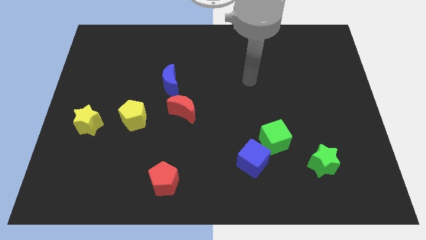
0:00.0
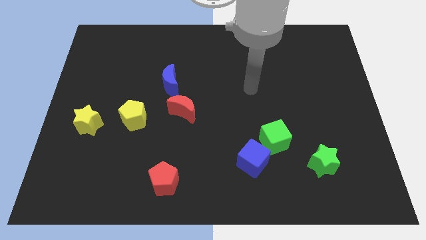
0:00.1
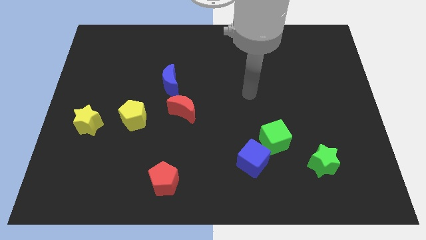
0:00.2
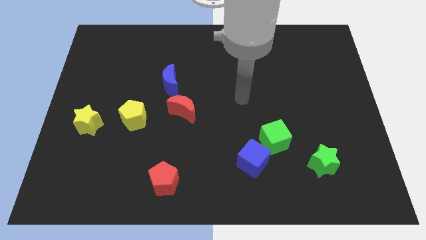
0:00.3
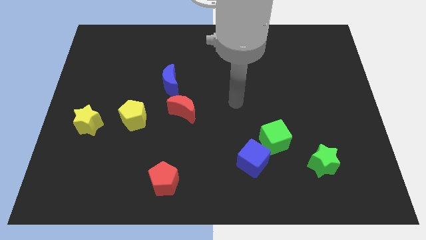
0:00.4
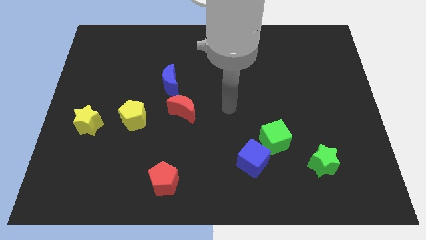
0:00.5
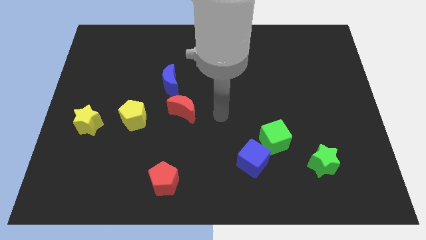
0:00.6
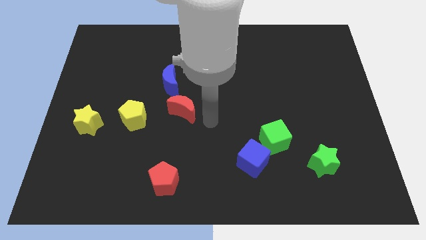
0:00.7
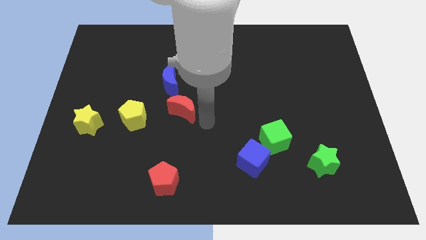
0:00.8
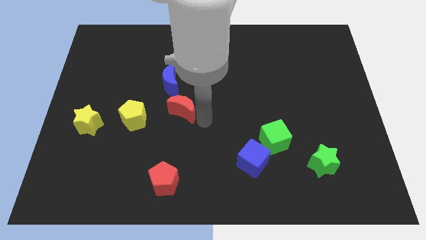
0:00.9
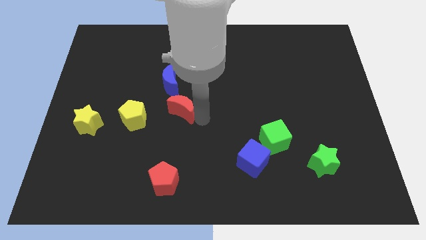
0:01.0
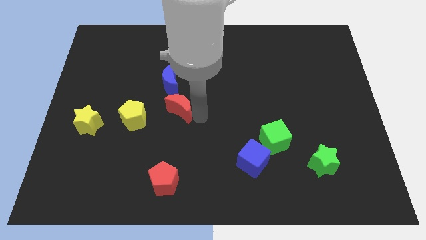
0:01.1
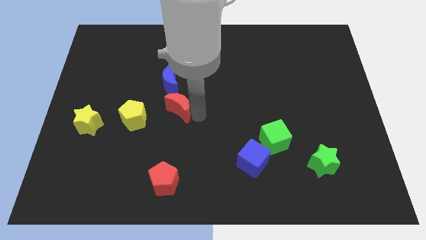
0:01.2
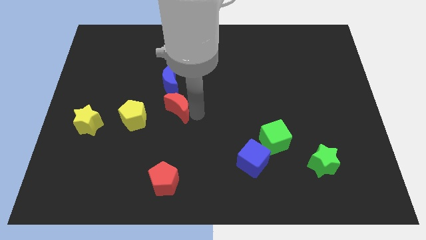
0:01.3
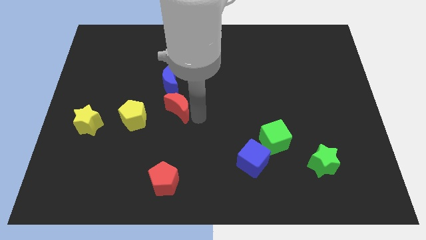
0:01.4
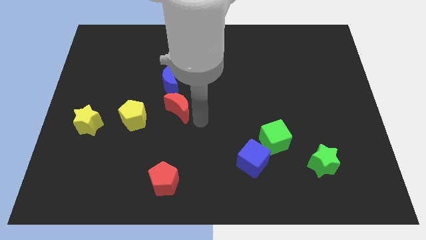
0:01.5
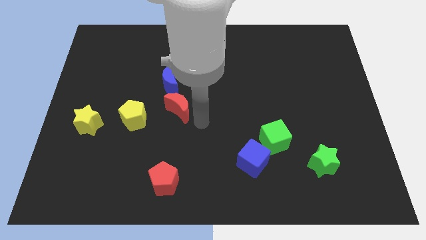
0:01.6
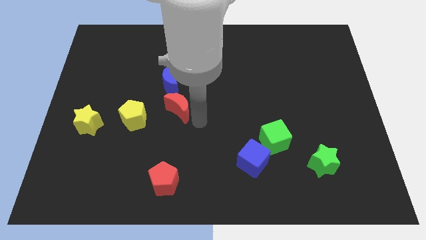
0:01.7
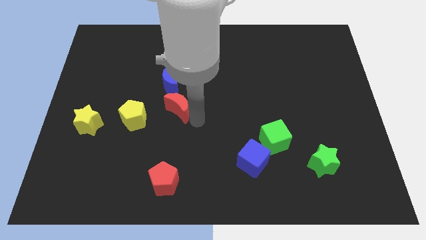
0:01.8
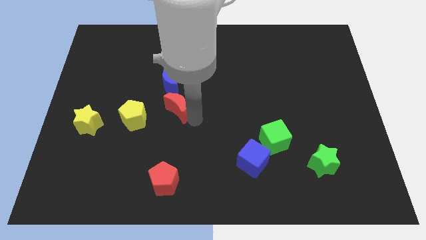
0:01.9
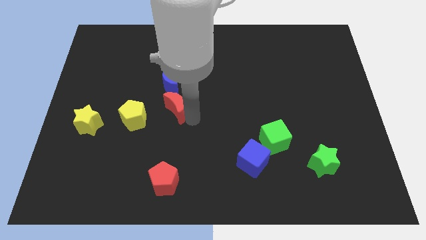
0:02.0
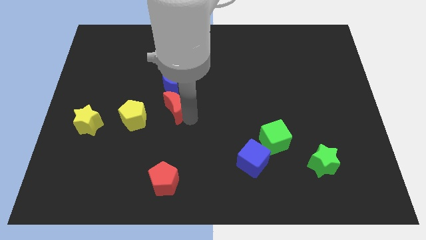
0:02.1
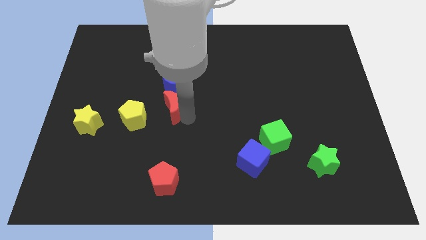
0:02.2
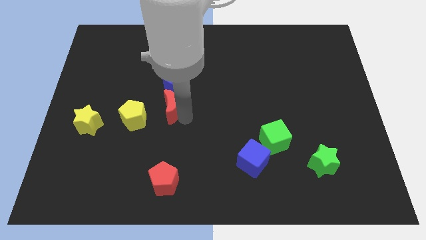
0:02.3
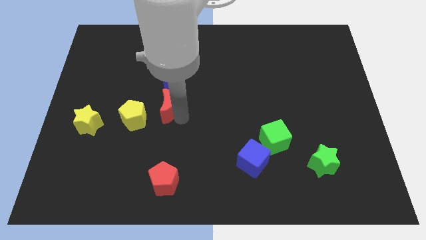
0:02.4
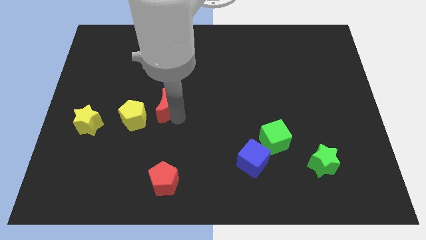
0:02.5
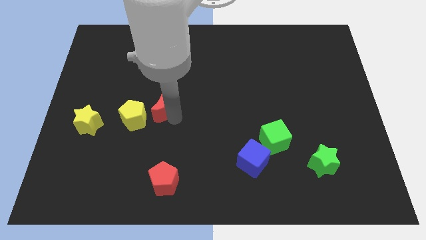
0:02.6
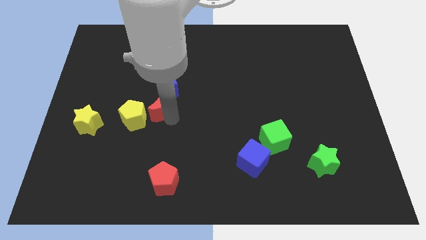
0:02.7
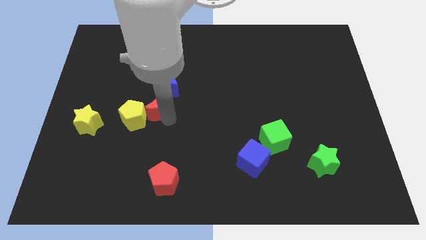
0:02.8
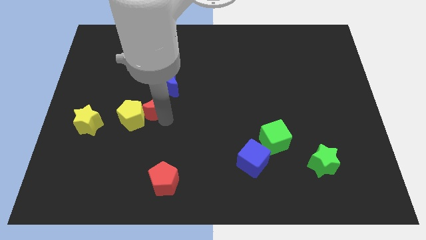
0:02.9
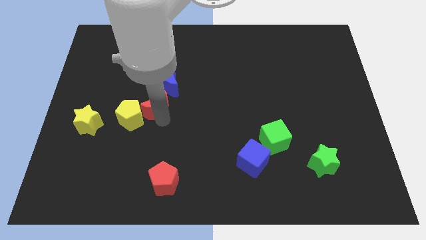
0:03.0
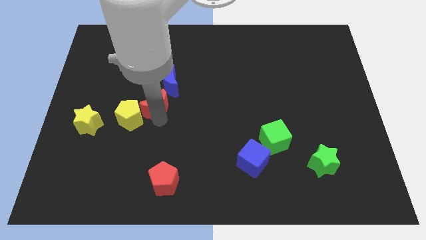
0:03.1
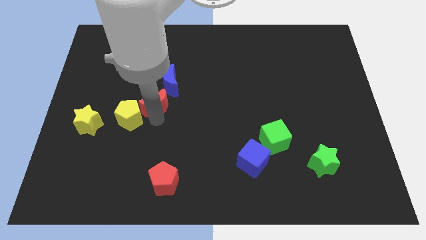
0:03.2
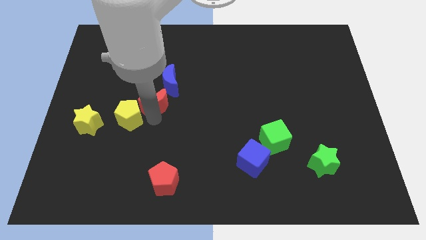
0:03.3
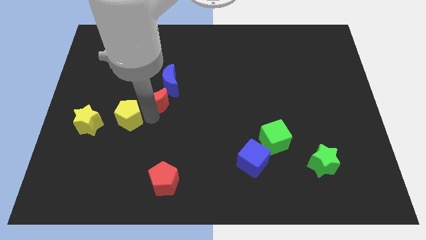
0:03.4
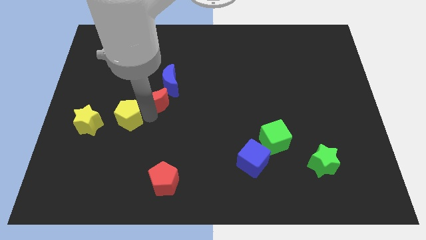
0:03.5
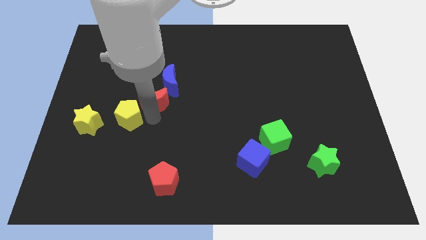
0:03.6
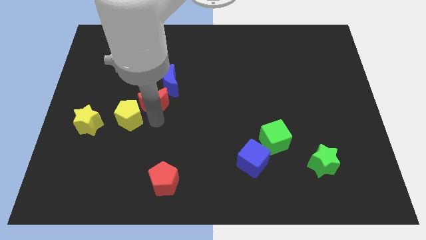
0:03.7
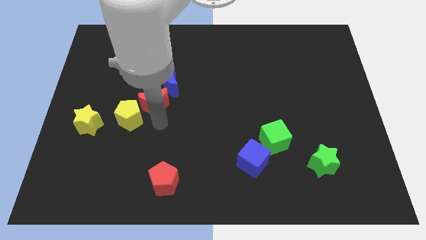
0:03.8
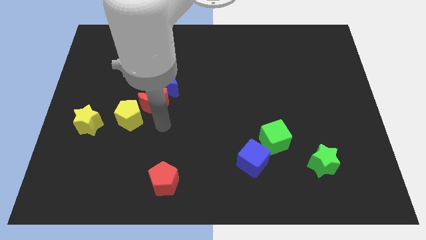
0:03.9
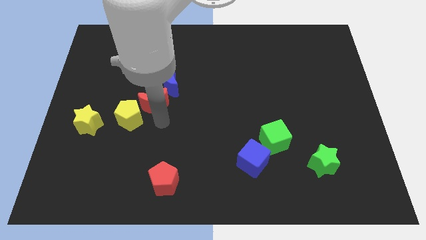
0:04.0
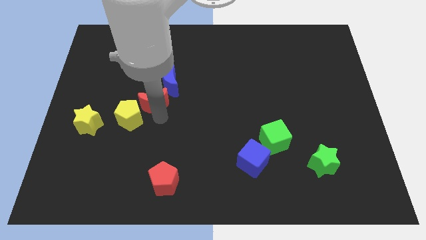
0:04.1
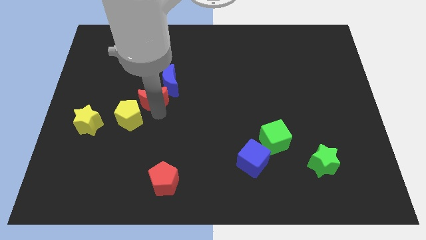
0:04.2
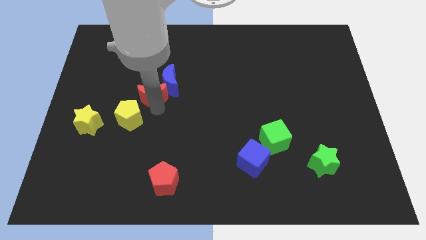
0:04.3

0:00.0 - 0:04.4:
slightly slide the red moon up and to the left diagonally

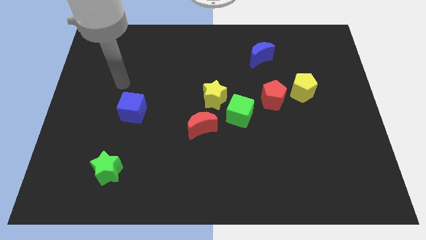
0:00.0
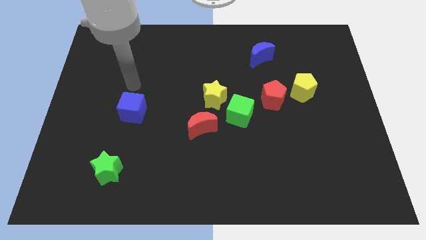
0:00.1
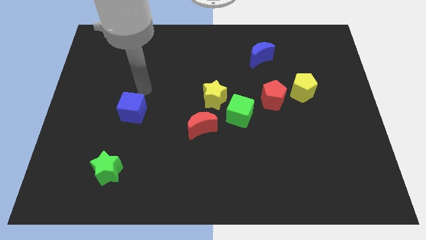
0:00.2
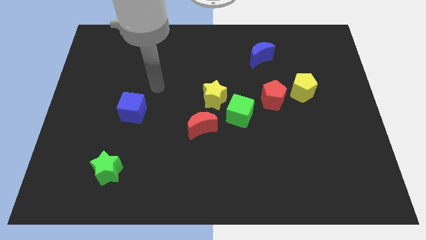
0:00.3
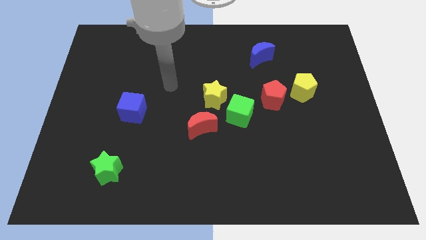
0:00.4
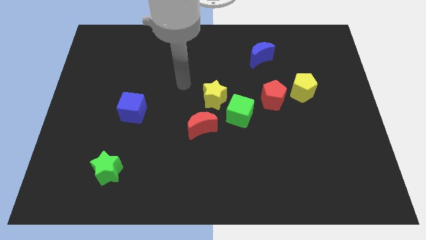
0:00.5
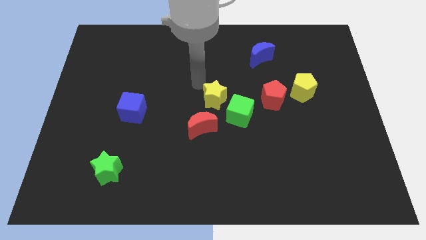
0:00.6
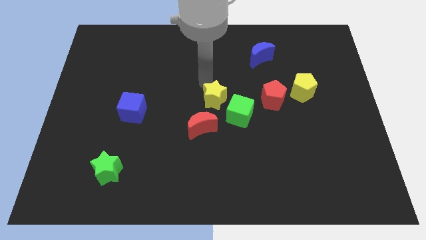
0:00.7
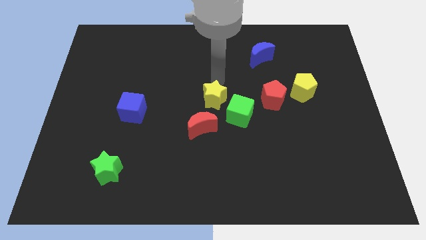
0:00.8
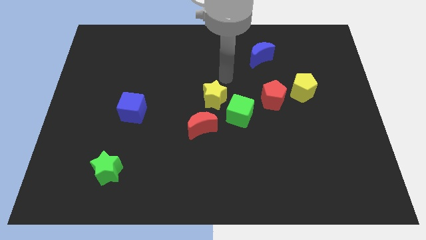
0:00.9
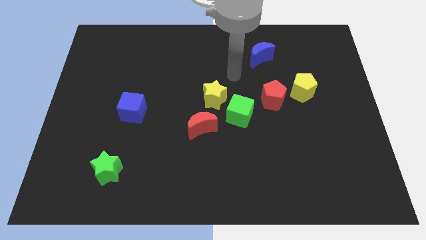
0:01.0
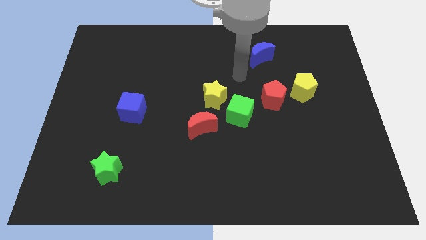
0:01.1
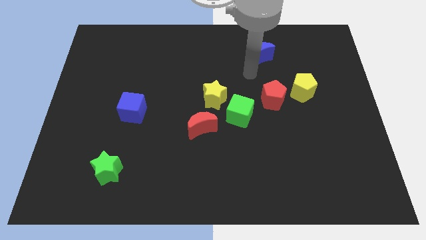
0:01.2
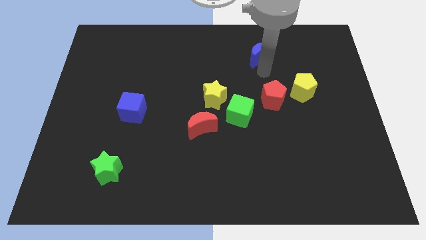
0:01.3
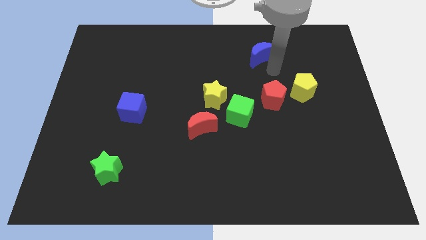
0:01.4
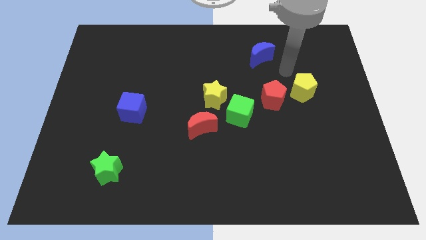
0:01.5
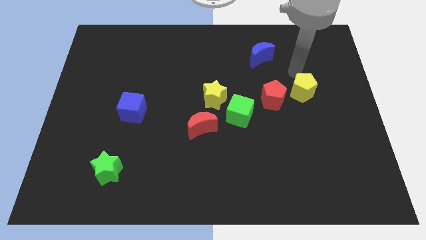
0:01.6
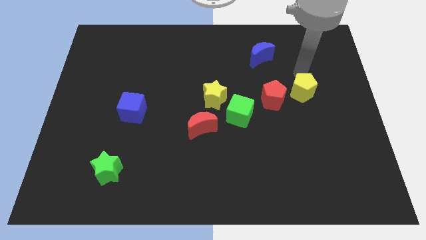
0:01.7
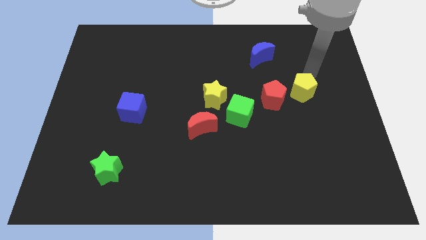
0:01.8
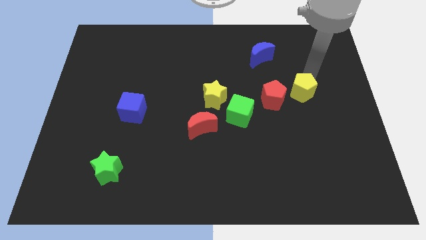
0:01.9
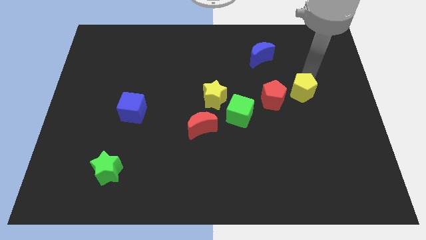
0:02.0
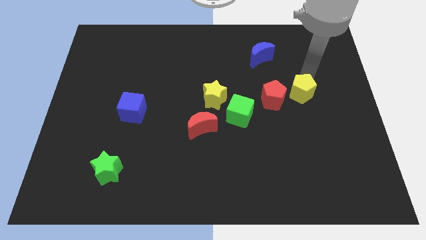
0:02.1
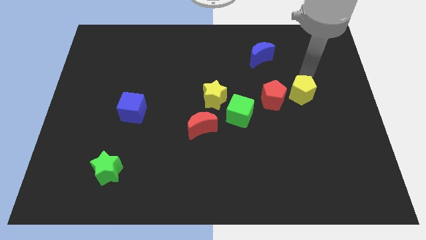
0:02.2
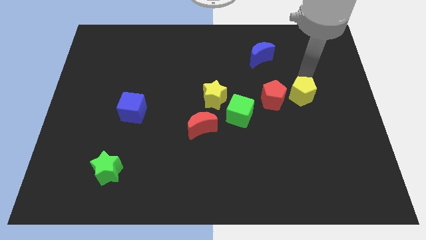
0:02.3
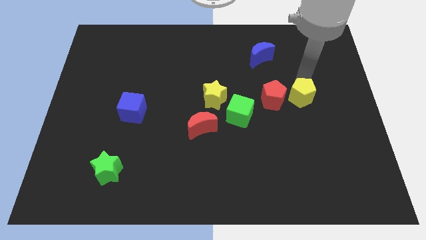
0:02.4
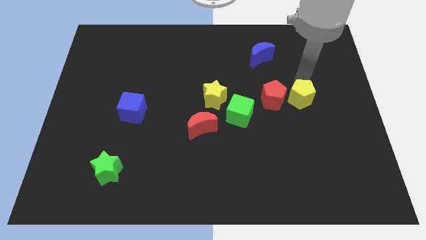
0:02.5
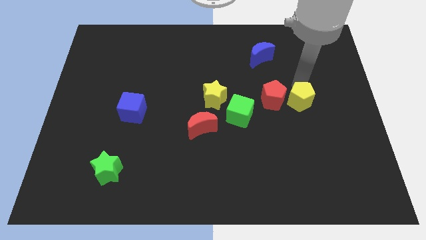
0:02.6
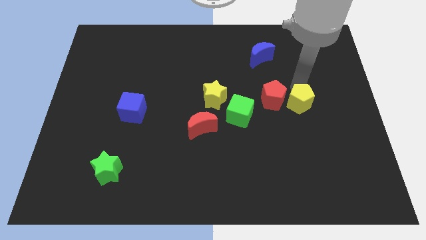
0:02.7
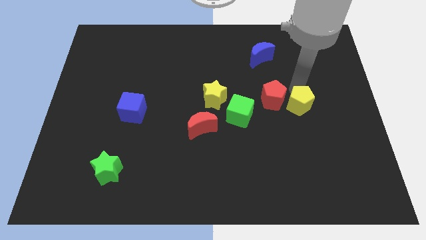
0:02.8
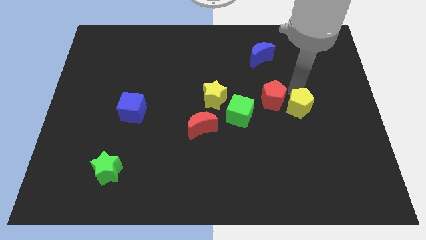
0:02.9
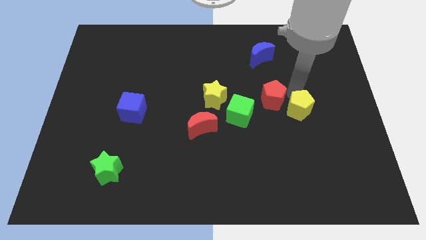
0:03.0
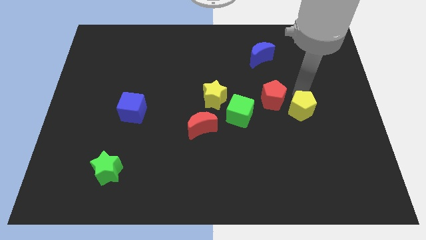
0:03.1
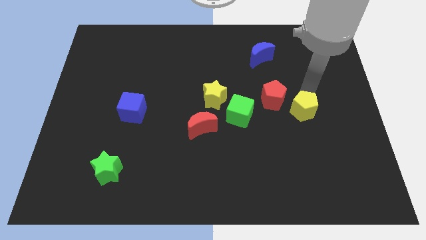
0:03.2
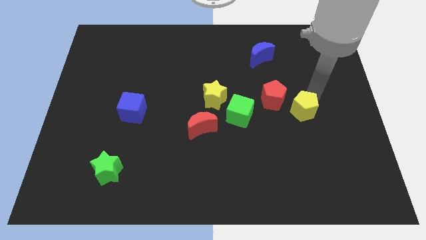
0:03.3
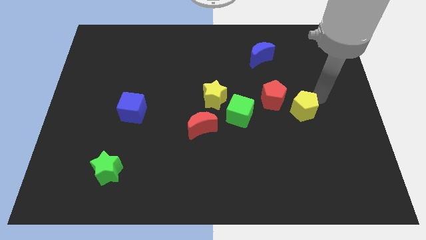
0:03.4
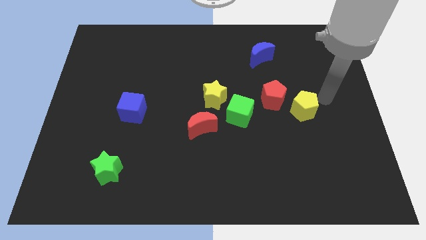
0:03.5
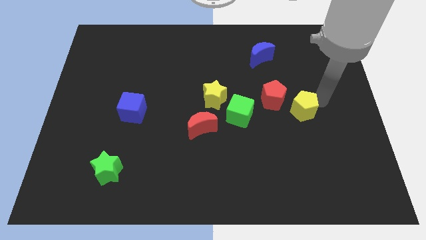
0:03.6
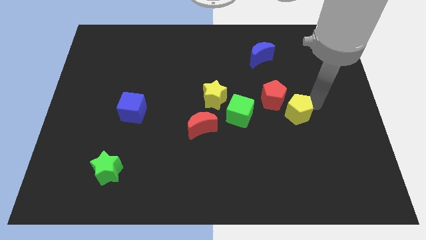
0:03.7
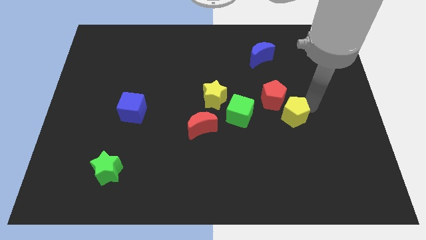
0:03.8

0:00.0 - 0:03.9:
slide the yellow pentagon downwards and to the left a little bit
